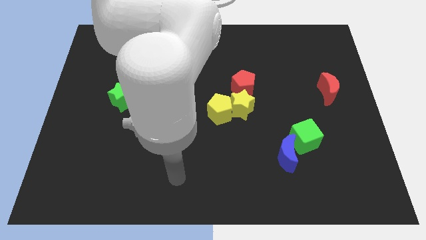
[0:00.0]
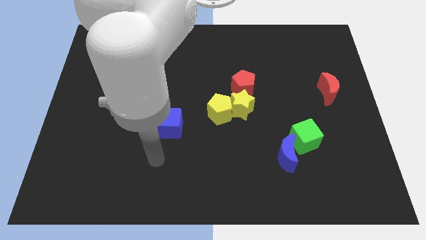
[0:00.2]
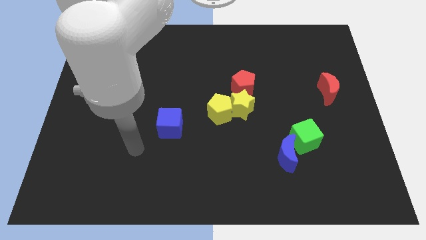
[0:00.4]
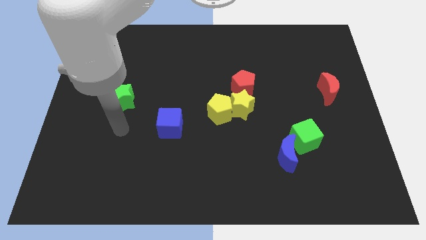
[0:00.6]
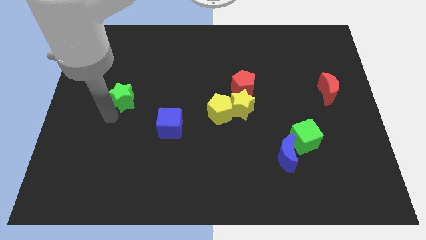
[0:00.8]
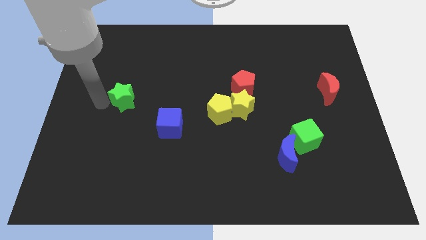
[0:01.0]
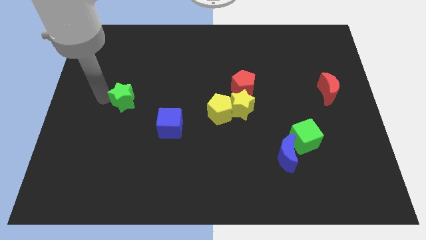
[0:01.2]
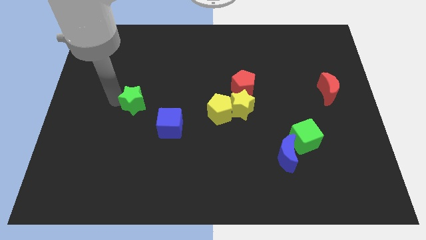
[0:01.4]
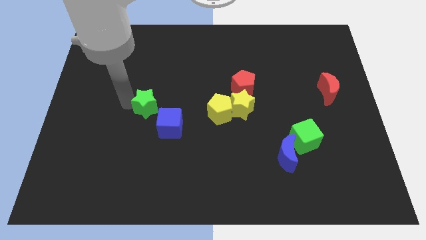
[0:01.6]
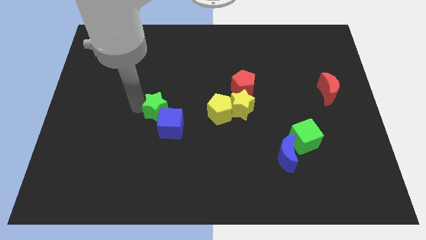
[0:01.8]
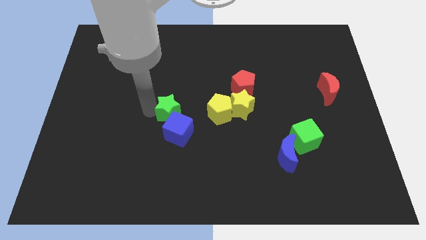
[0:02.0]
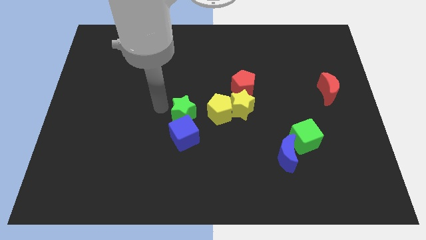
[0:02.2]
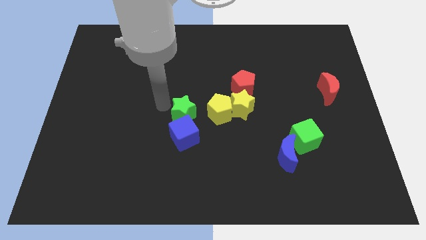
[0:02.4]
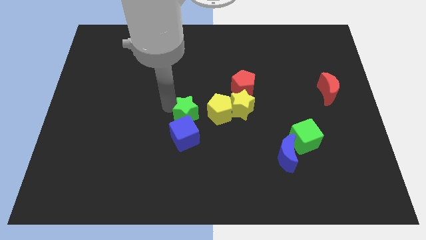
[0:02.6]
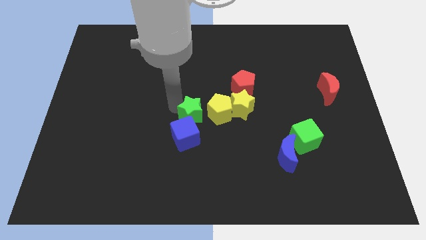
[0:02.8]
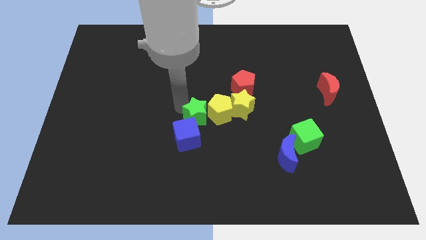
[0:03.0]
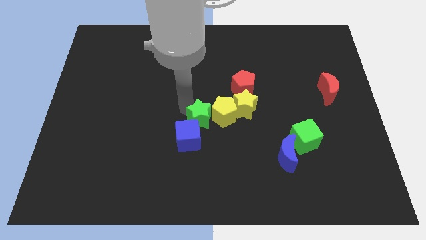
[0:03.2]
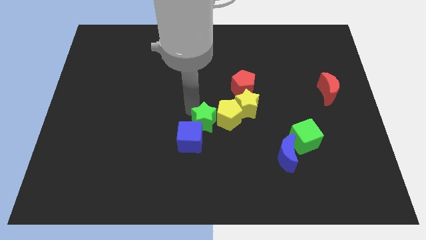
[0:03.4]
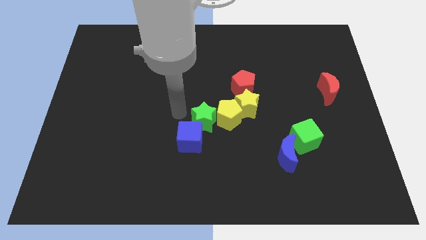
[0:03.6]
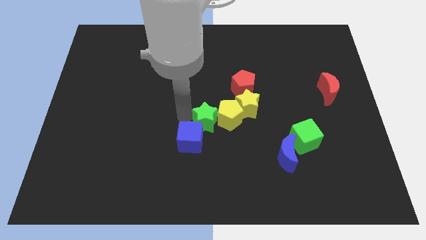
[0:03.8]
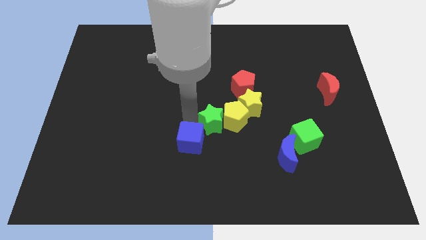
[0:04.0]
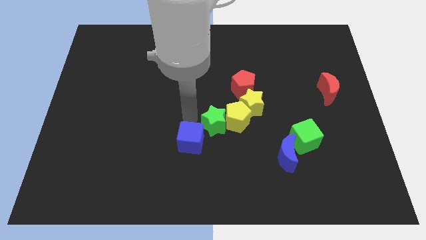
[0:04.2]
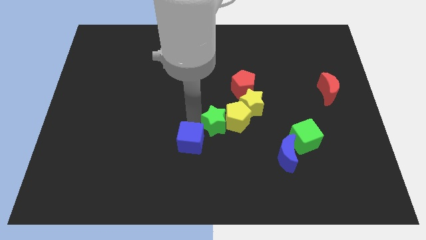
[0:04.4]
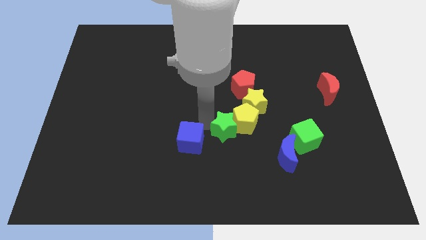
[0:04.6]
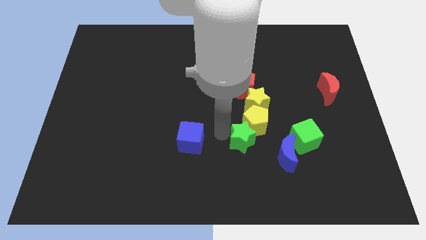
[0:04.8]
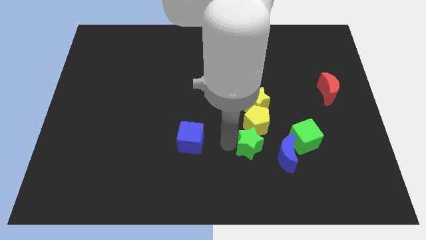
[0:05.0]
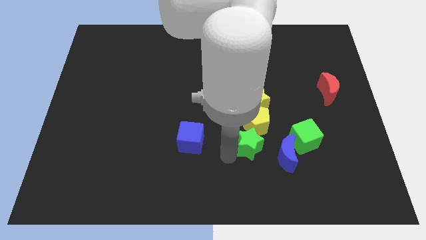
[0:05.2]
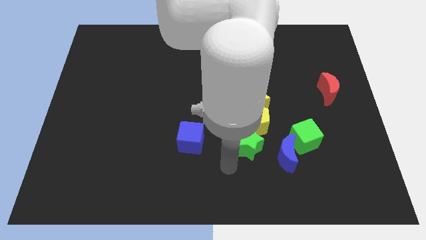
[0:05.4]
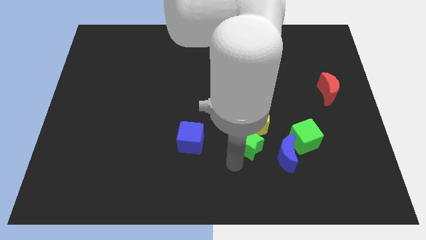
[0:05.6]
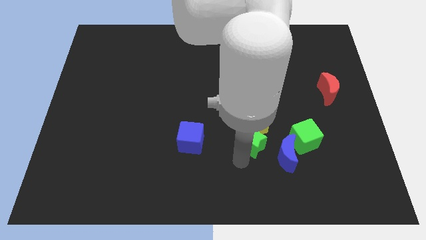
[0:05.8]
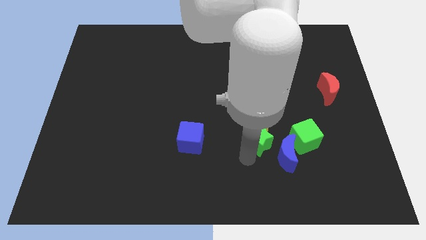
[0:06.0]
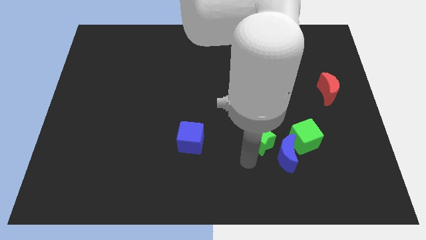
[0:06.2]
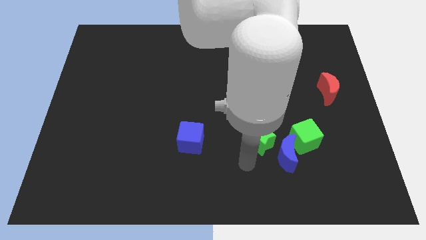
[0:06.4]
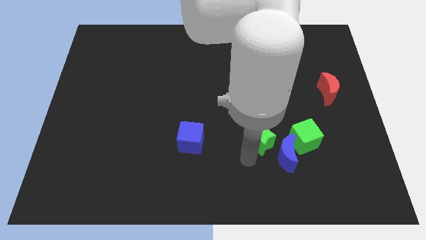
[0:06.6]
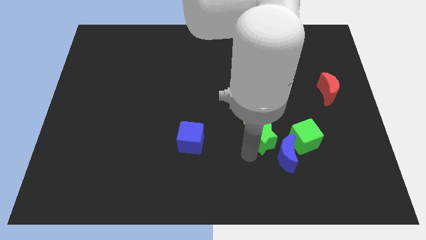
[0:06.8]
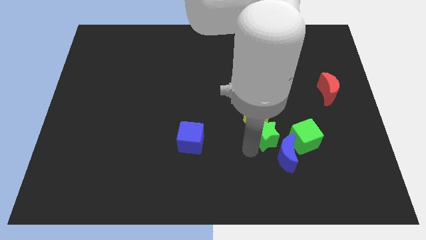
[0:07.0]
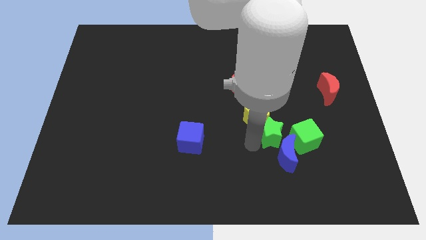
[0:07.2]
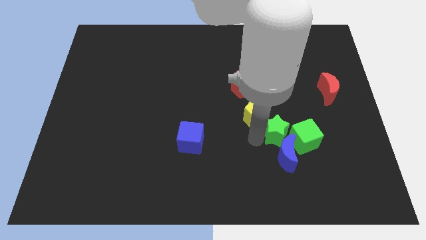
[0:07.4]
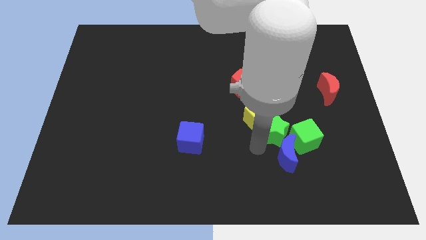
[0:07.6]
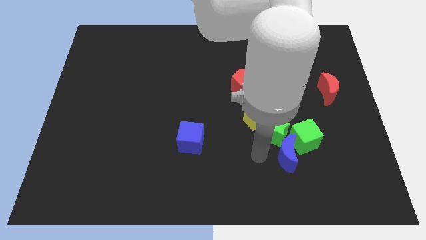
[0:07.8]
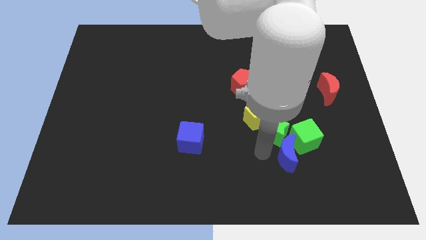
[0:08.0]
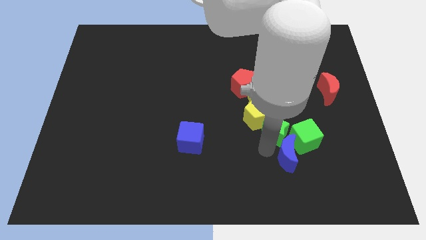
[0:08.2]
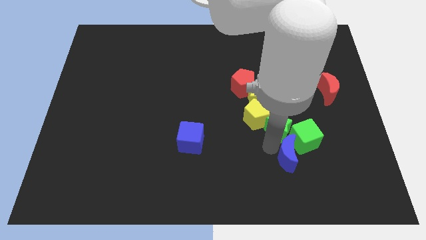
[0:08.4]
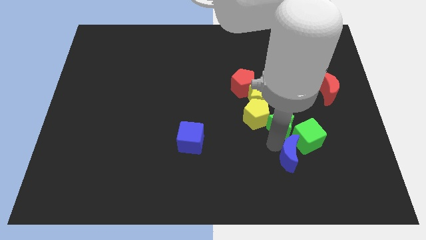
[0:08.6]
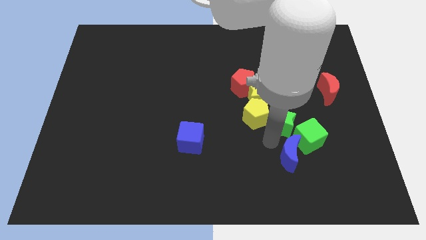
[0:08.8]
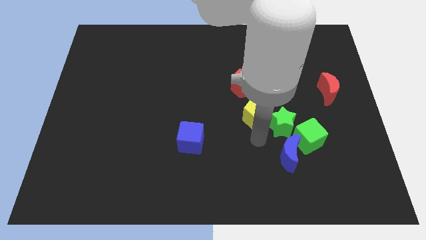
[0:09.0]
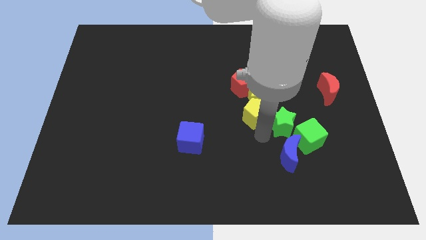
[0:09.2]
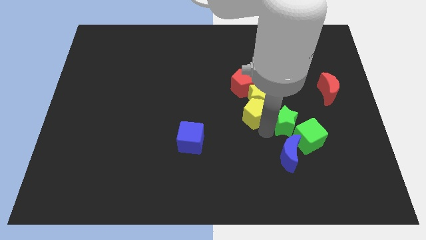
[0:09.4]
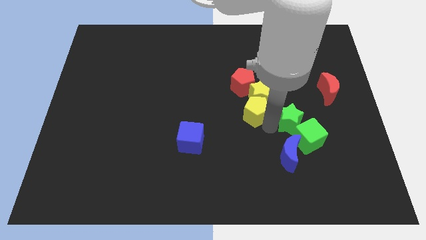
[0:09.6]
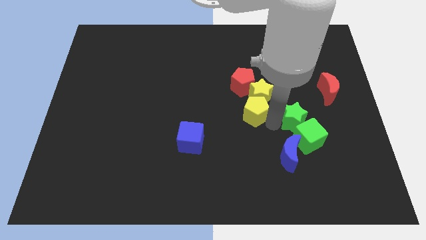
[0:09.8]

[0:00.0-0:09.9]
put the green star to the top right side of the blue moon

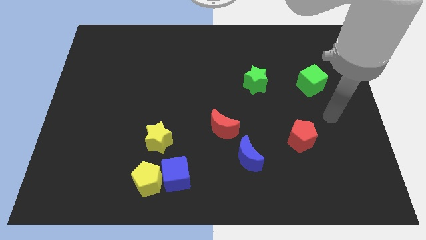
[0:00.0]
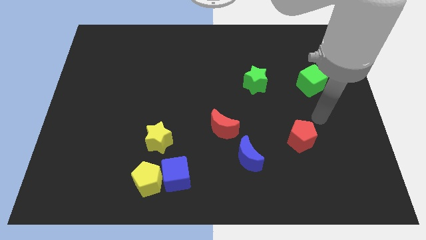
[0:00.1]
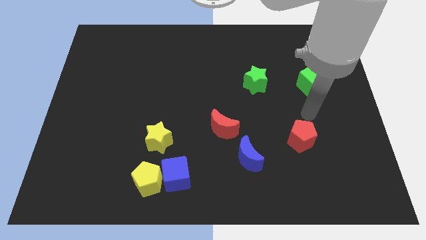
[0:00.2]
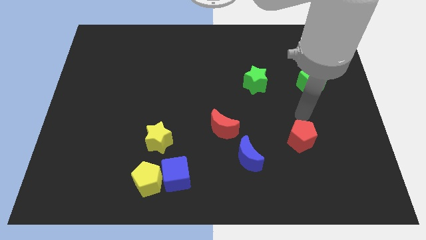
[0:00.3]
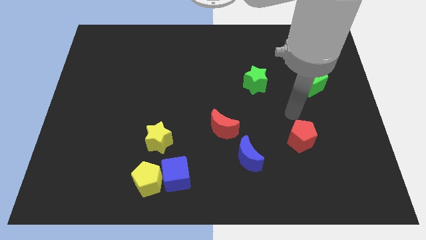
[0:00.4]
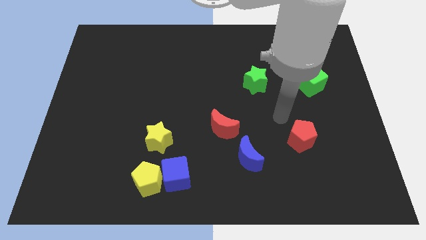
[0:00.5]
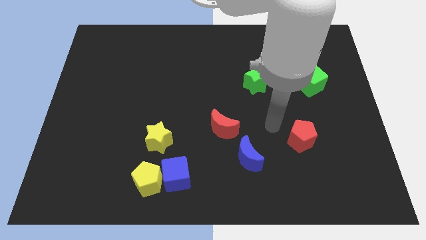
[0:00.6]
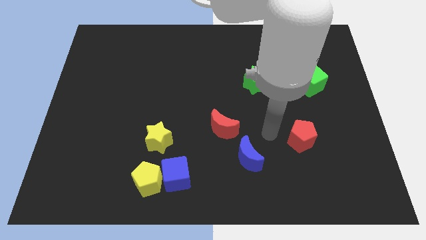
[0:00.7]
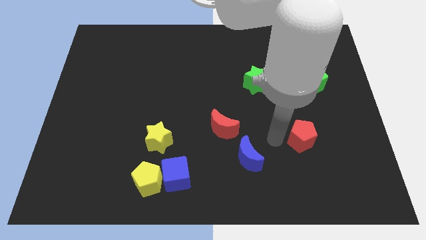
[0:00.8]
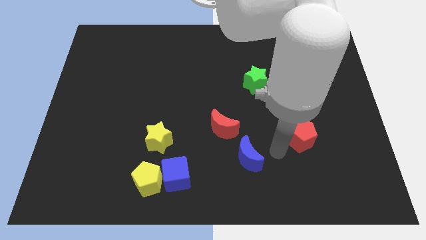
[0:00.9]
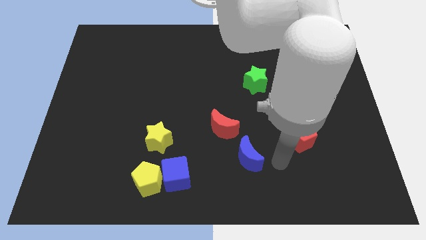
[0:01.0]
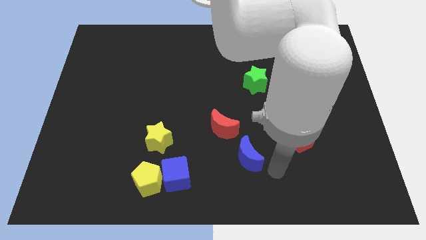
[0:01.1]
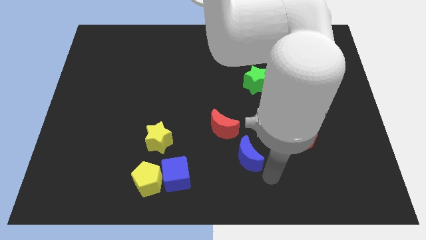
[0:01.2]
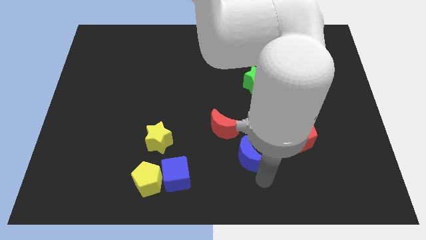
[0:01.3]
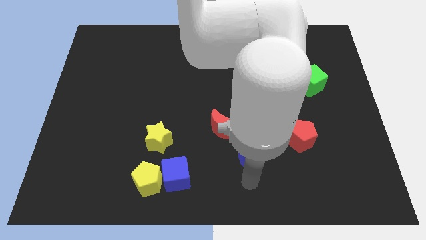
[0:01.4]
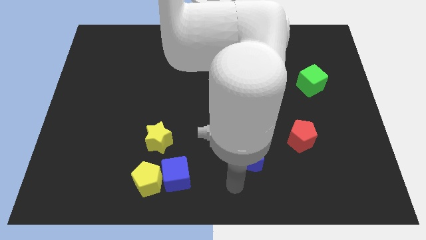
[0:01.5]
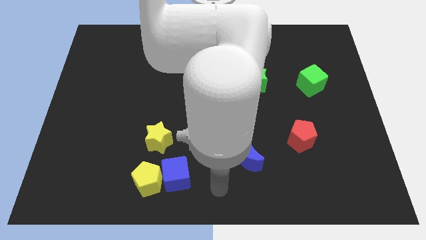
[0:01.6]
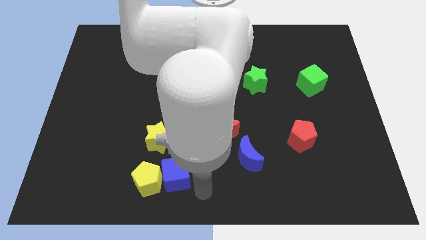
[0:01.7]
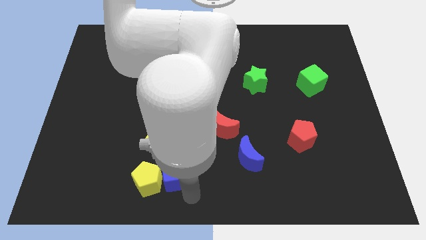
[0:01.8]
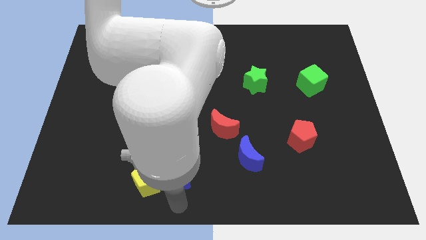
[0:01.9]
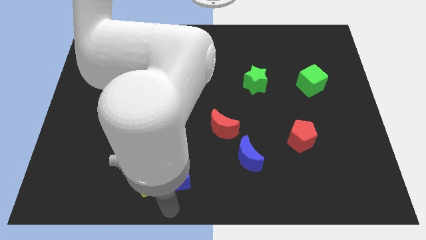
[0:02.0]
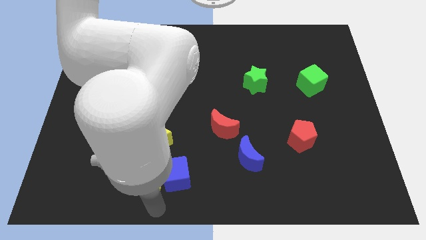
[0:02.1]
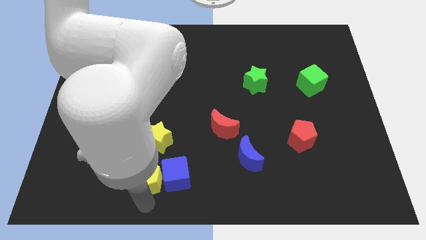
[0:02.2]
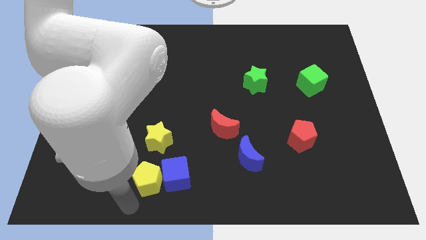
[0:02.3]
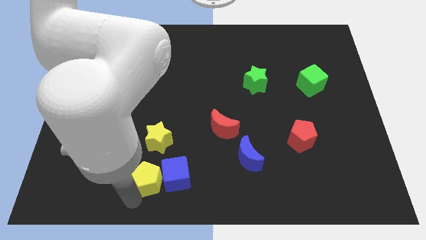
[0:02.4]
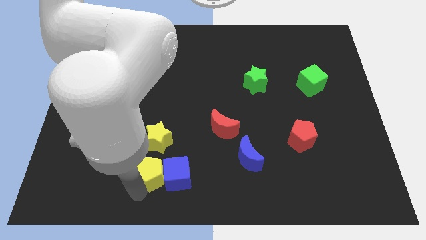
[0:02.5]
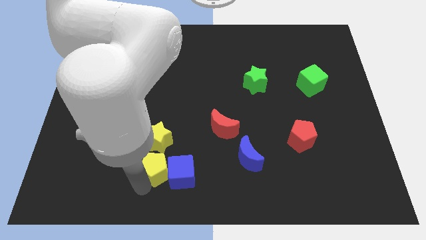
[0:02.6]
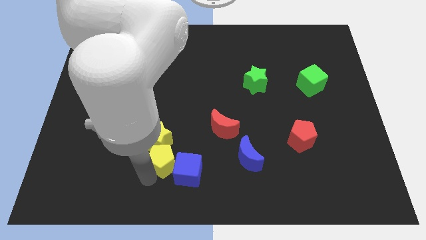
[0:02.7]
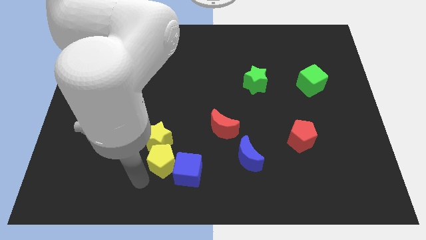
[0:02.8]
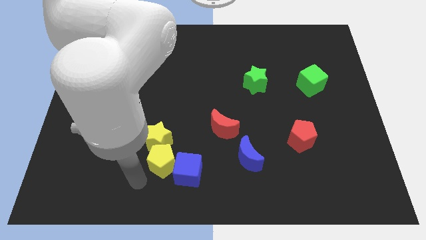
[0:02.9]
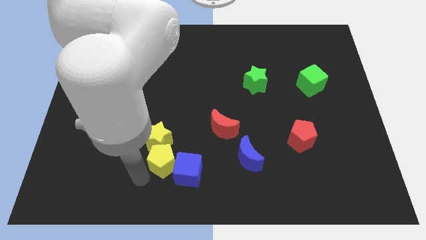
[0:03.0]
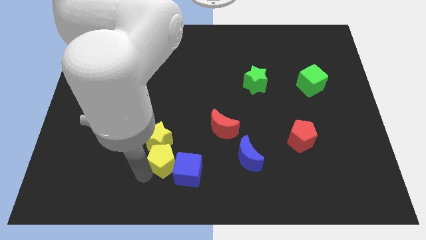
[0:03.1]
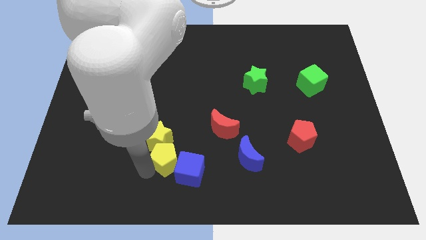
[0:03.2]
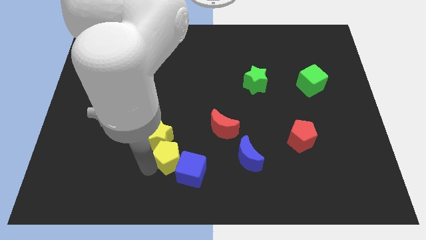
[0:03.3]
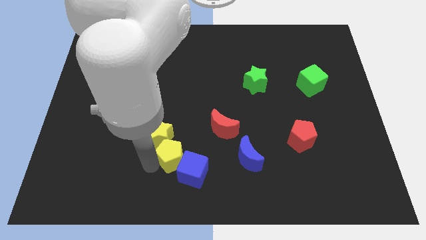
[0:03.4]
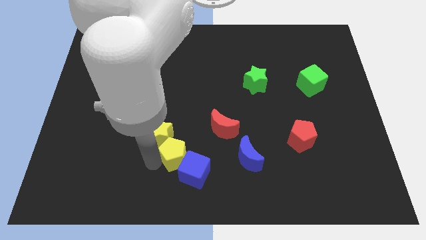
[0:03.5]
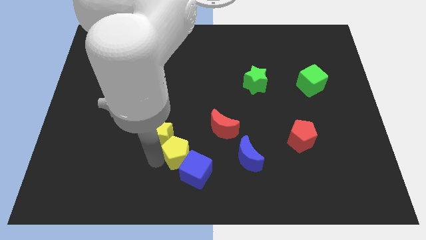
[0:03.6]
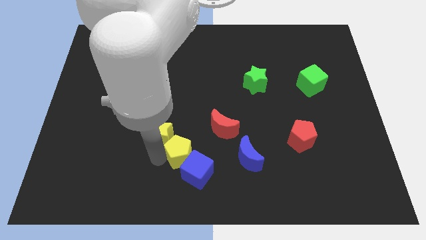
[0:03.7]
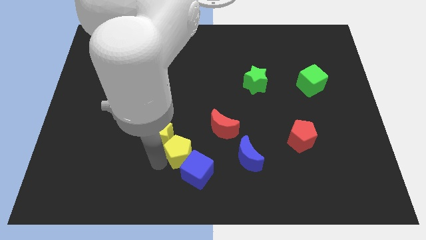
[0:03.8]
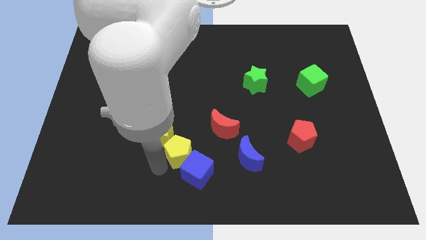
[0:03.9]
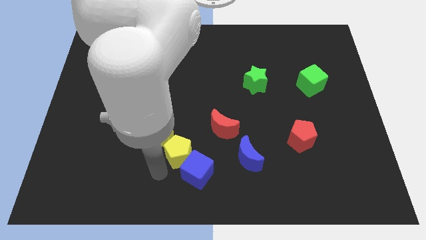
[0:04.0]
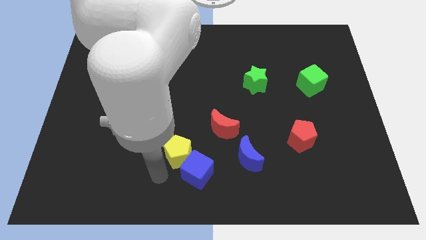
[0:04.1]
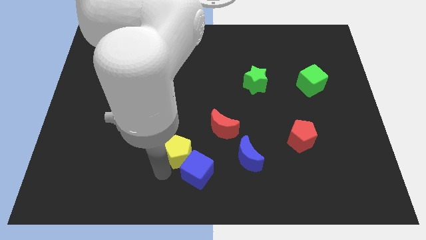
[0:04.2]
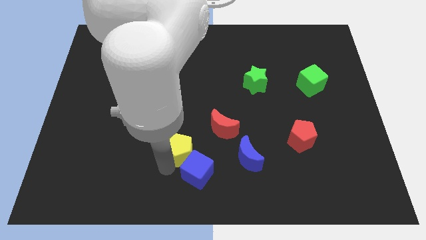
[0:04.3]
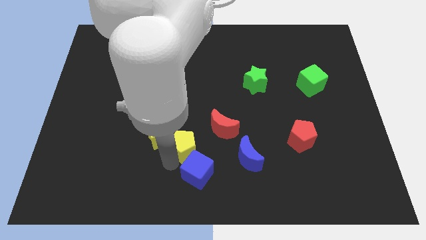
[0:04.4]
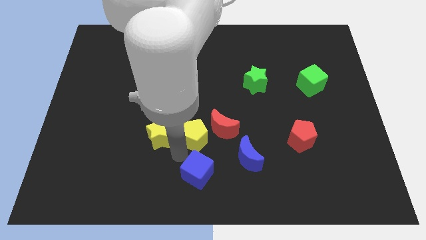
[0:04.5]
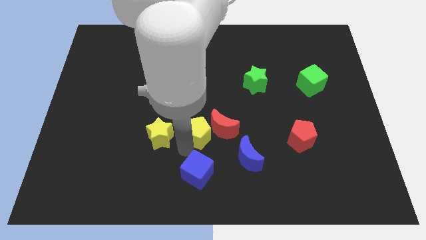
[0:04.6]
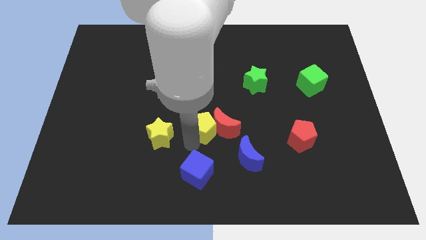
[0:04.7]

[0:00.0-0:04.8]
slide the yellow pentagon to the top left side of the red moon
